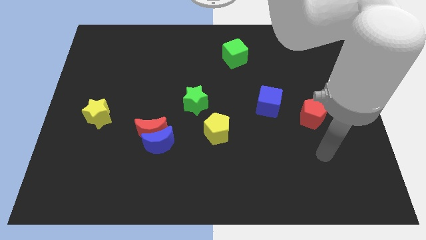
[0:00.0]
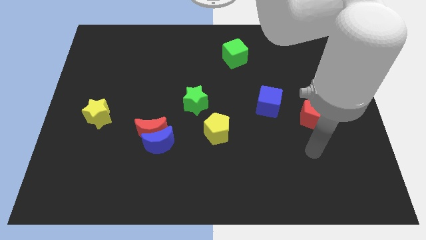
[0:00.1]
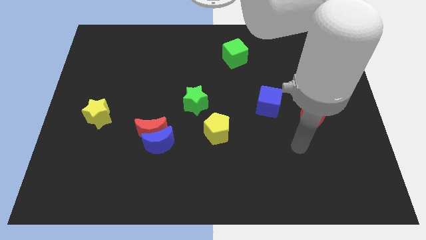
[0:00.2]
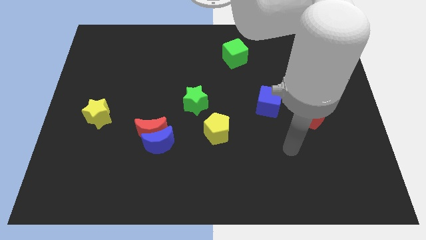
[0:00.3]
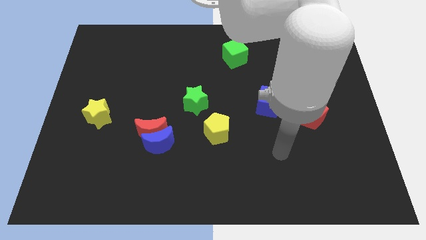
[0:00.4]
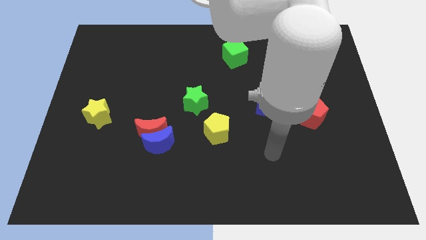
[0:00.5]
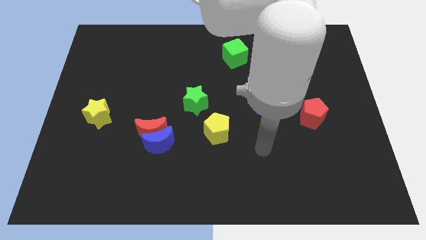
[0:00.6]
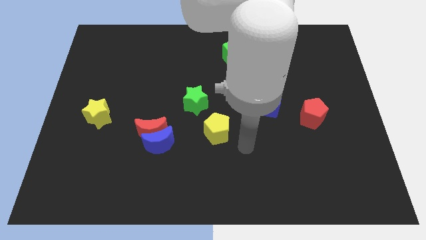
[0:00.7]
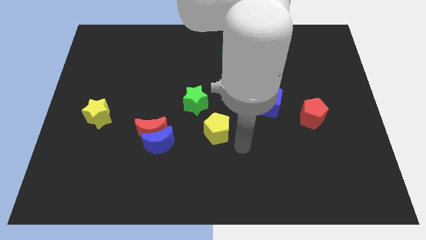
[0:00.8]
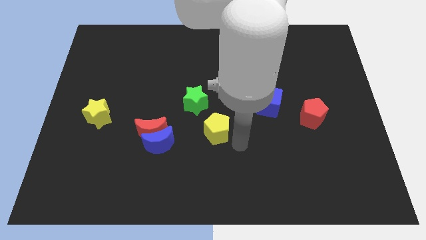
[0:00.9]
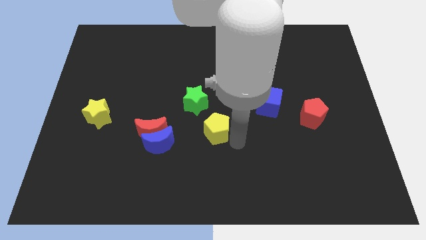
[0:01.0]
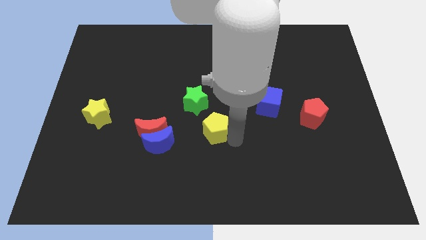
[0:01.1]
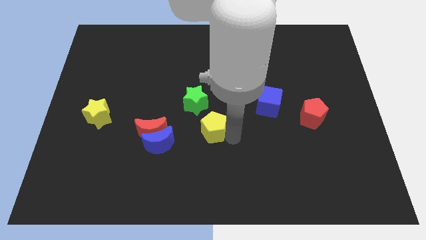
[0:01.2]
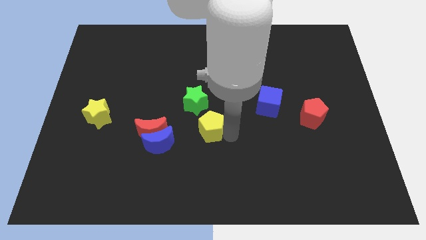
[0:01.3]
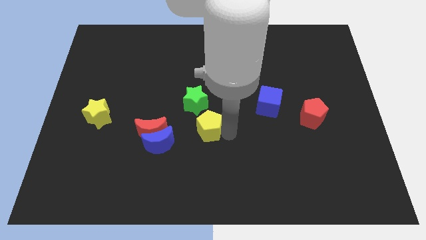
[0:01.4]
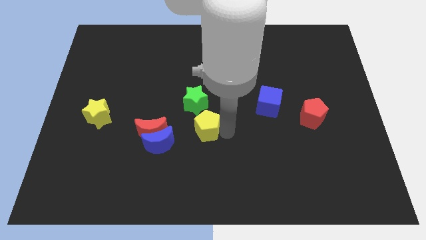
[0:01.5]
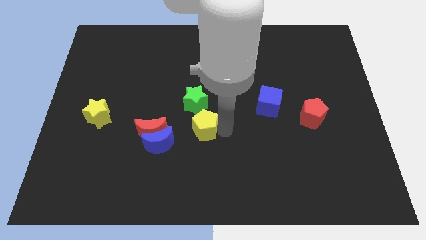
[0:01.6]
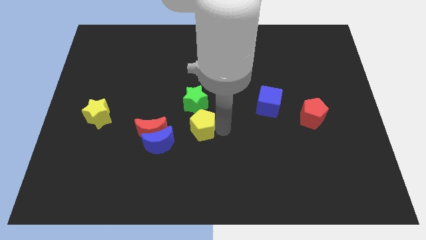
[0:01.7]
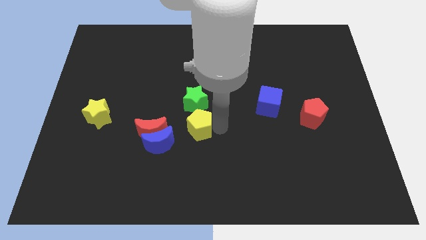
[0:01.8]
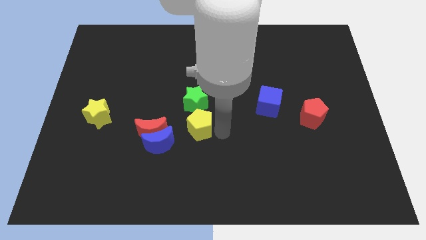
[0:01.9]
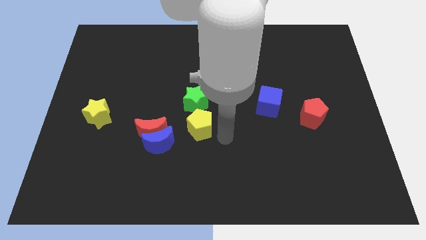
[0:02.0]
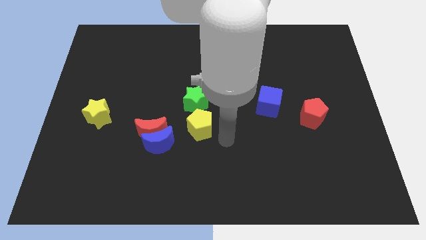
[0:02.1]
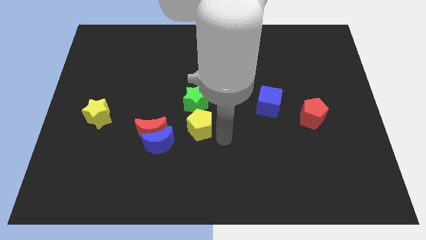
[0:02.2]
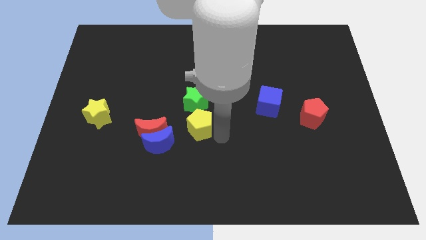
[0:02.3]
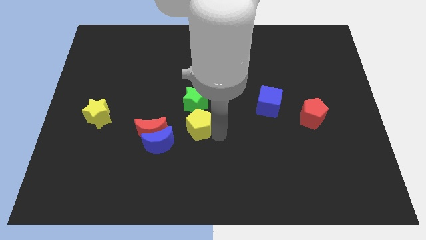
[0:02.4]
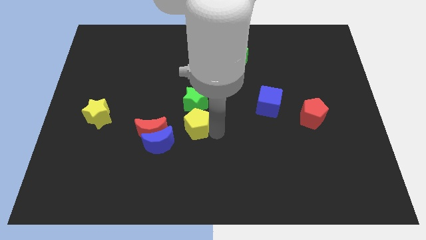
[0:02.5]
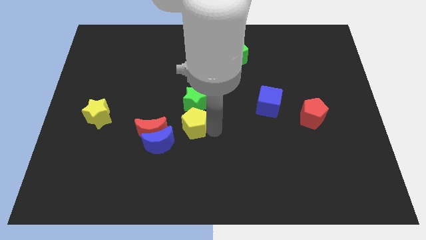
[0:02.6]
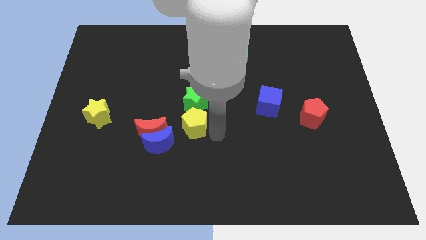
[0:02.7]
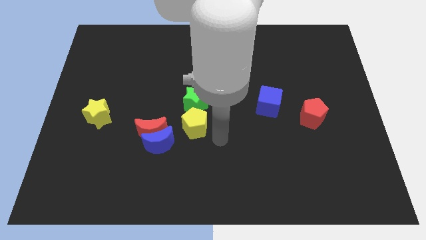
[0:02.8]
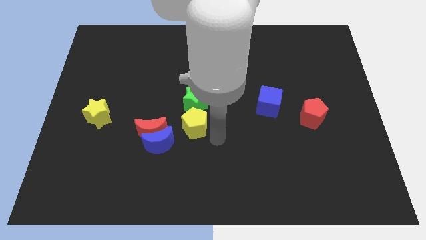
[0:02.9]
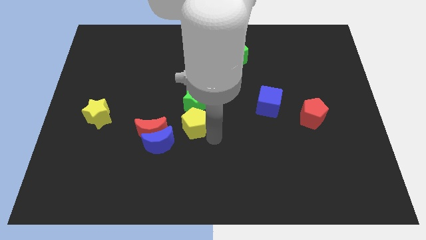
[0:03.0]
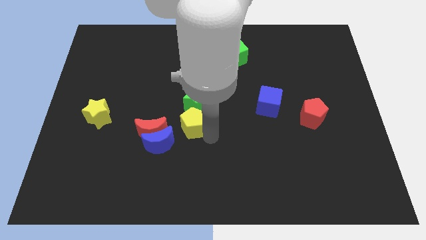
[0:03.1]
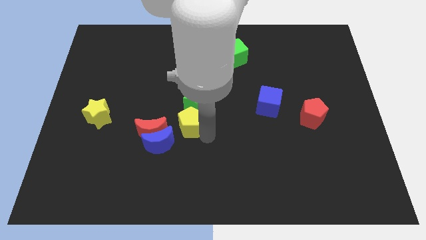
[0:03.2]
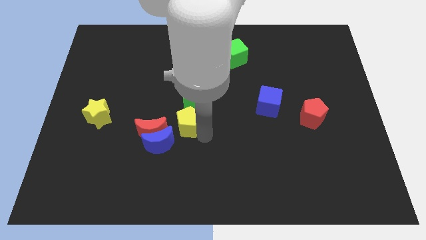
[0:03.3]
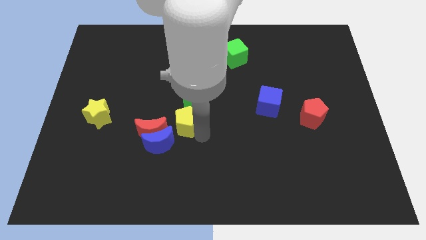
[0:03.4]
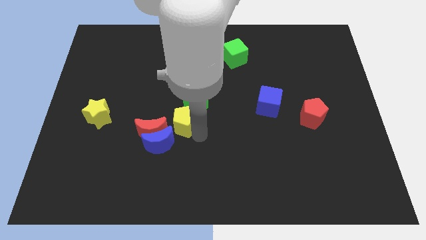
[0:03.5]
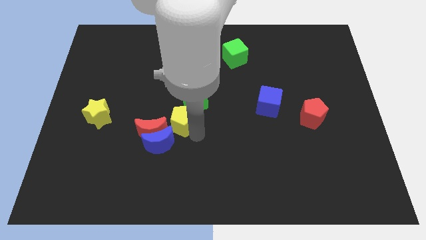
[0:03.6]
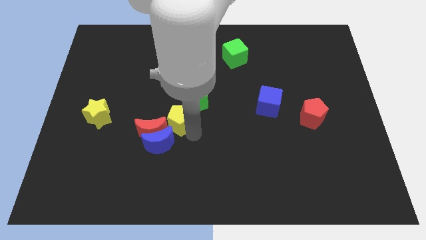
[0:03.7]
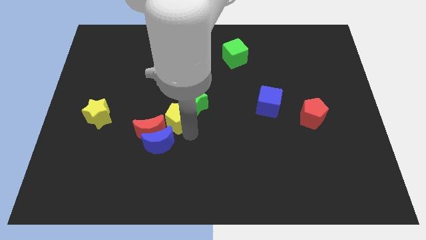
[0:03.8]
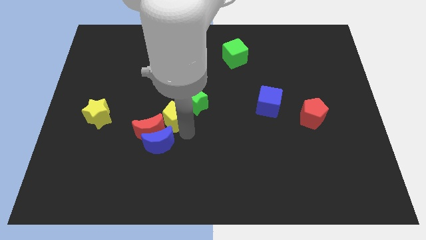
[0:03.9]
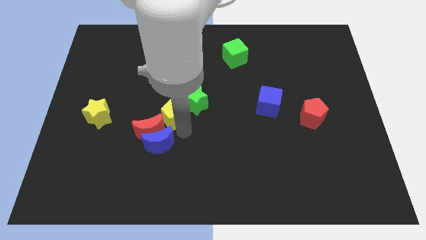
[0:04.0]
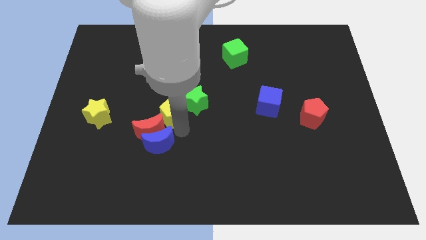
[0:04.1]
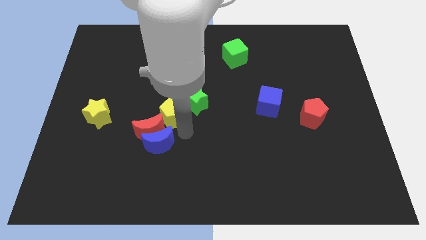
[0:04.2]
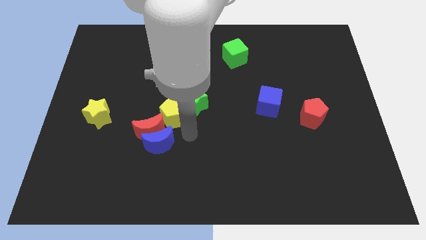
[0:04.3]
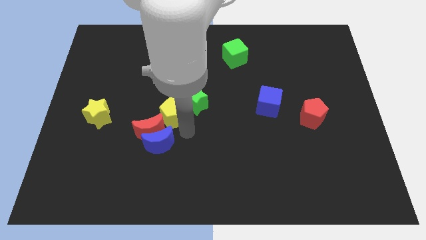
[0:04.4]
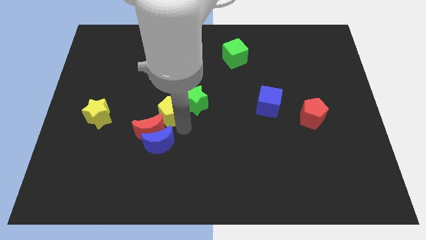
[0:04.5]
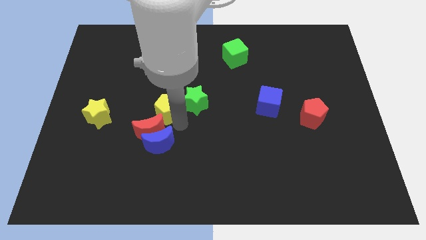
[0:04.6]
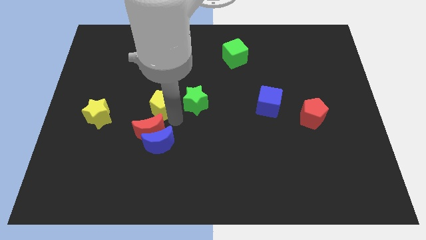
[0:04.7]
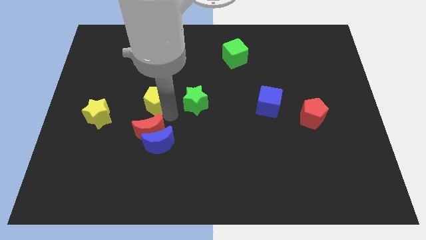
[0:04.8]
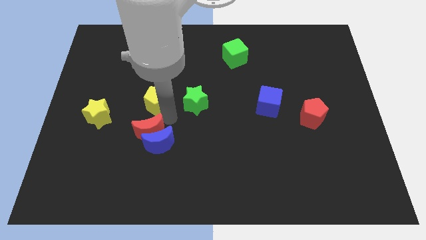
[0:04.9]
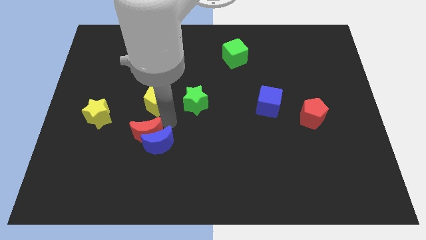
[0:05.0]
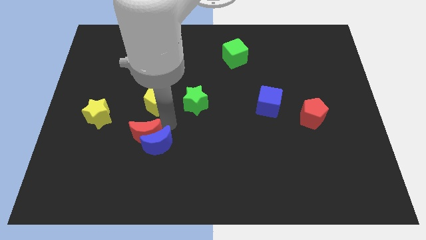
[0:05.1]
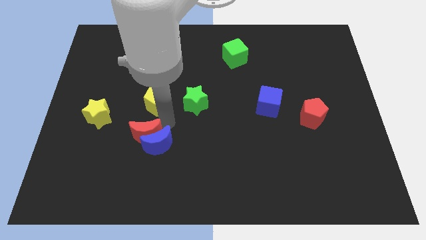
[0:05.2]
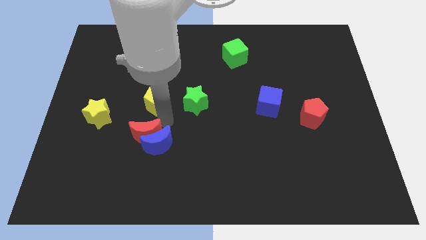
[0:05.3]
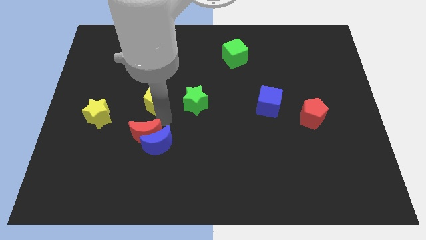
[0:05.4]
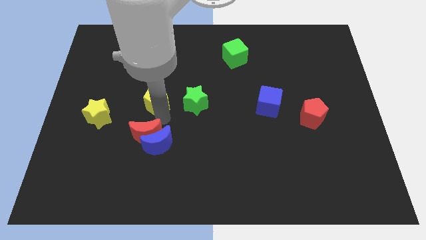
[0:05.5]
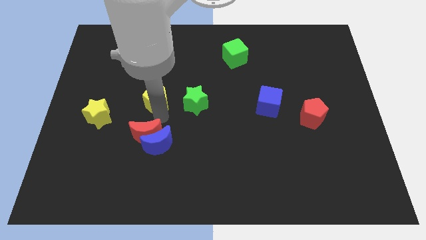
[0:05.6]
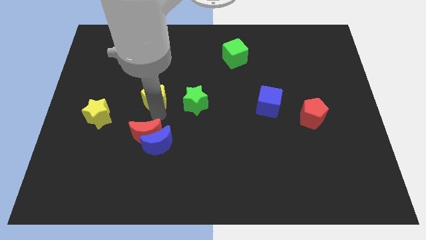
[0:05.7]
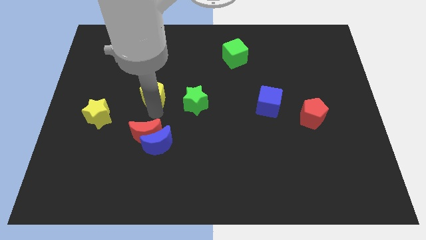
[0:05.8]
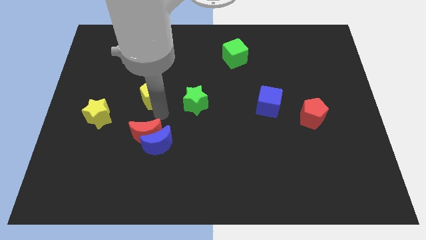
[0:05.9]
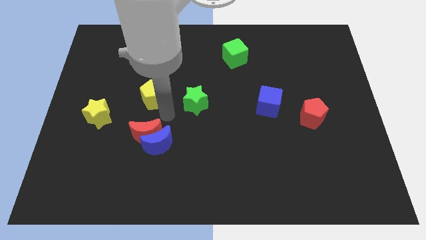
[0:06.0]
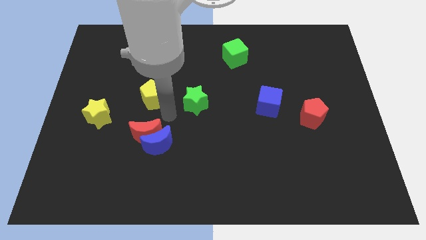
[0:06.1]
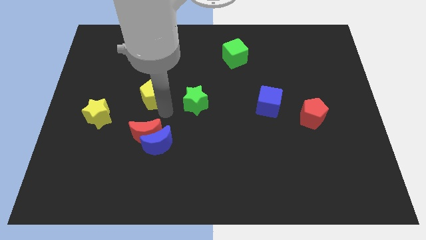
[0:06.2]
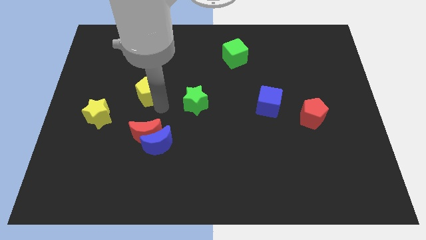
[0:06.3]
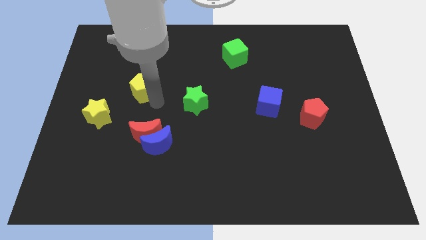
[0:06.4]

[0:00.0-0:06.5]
move the yellow pentagon up and then left

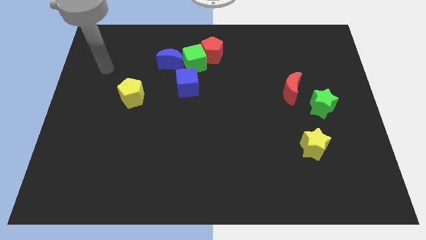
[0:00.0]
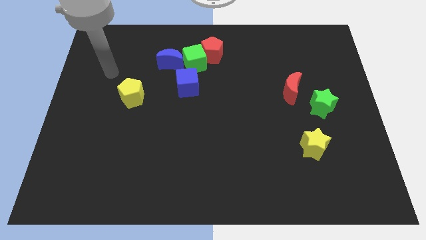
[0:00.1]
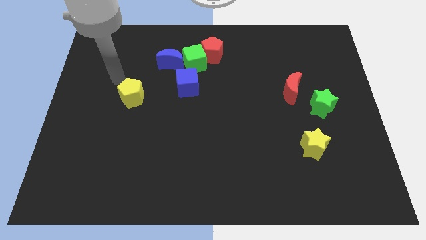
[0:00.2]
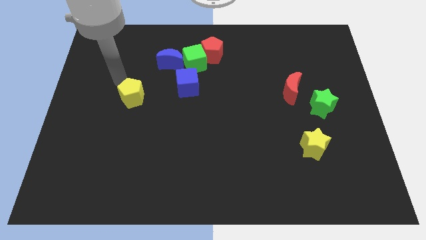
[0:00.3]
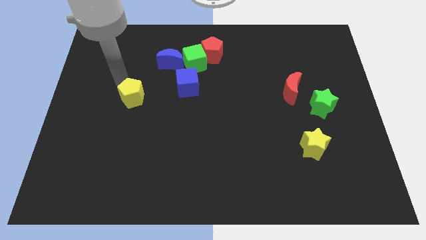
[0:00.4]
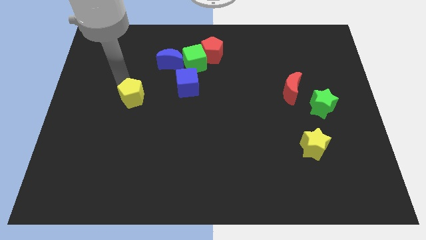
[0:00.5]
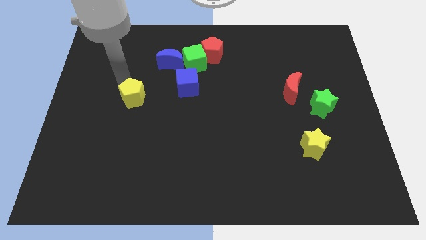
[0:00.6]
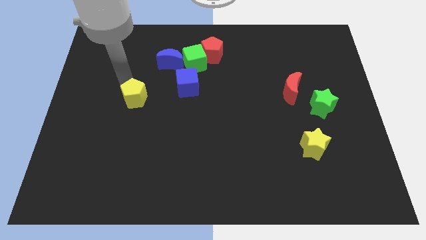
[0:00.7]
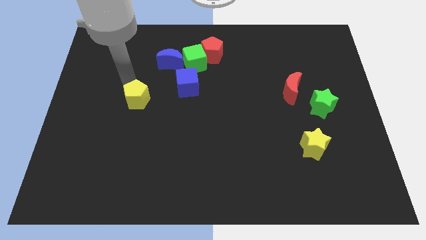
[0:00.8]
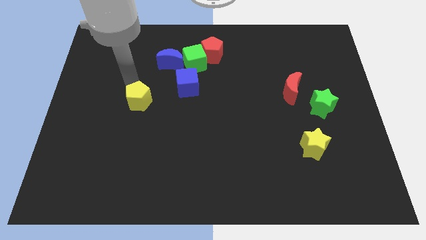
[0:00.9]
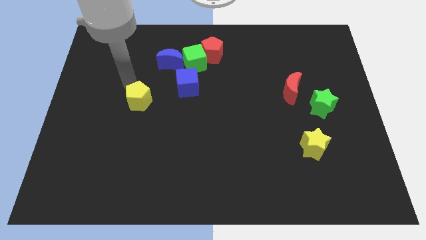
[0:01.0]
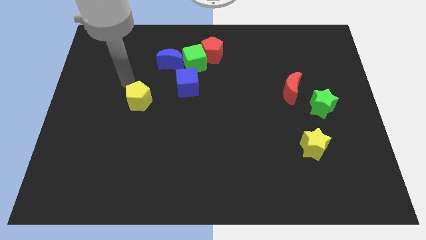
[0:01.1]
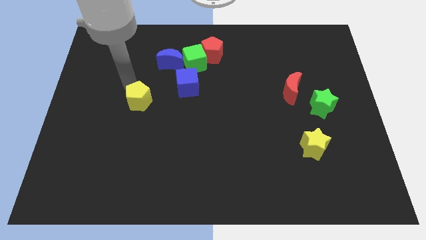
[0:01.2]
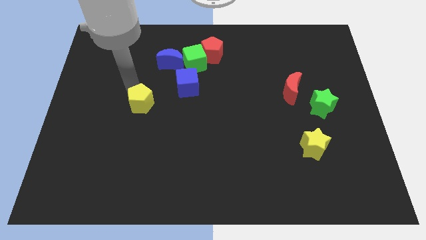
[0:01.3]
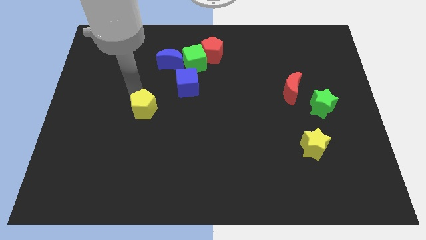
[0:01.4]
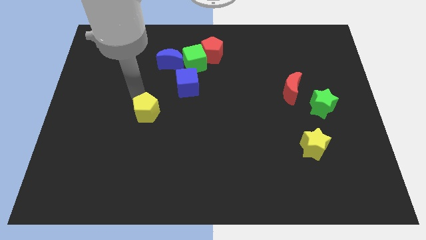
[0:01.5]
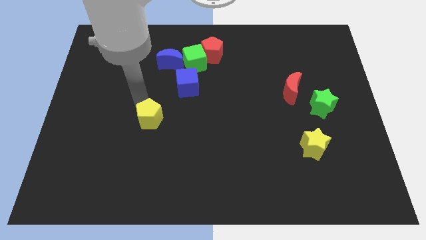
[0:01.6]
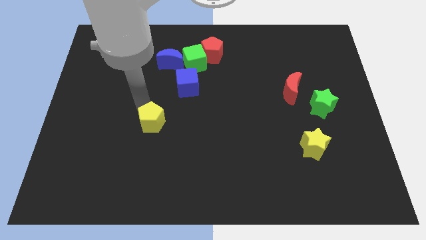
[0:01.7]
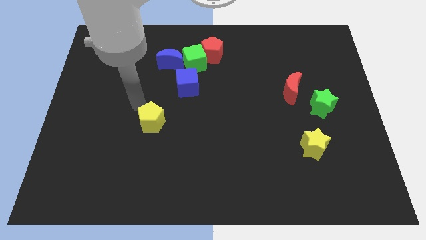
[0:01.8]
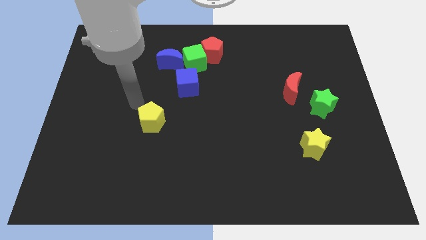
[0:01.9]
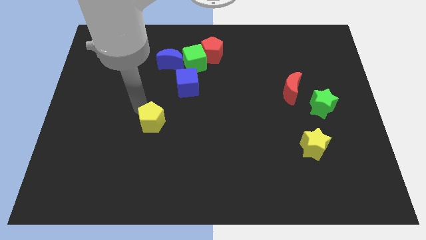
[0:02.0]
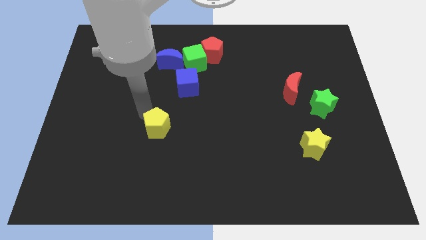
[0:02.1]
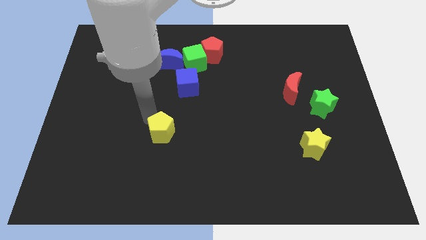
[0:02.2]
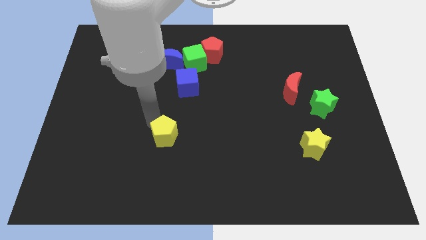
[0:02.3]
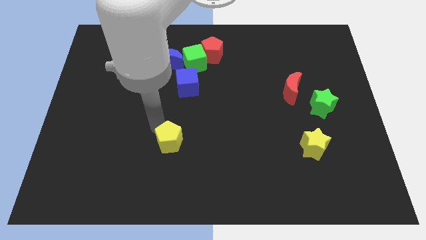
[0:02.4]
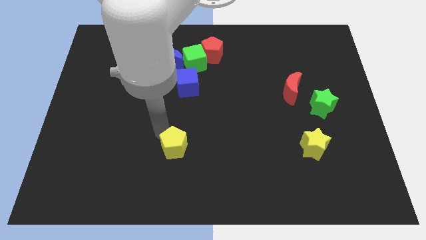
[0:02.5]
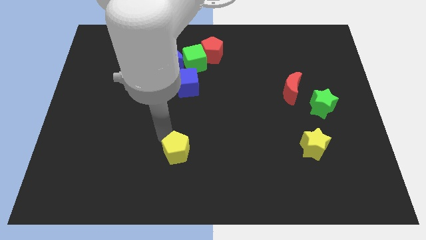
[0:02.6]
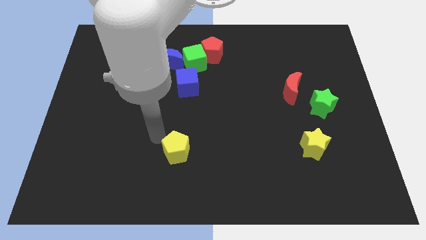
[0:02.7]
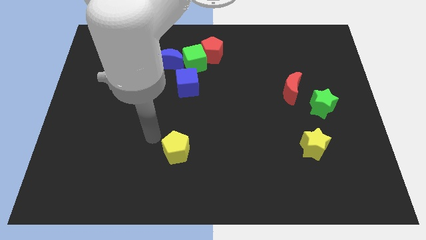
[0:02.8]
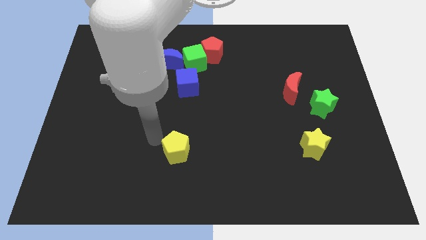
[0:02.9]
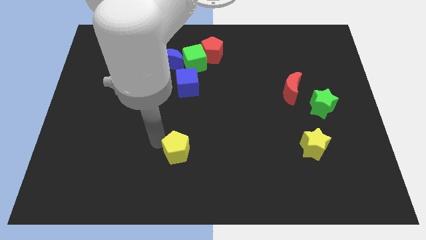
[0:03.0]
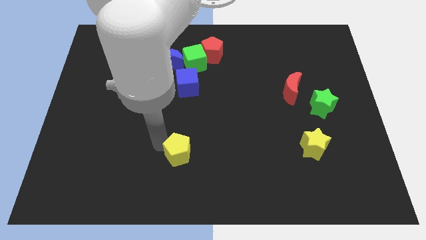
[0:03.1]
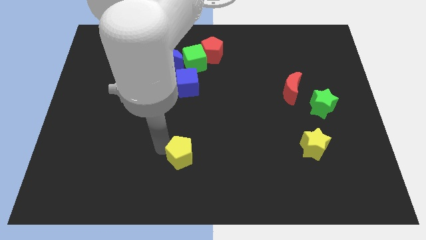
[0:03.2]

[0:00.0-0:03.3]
move the yellow pentagon down and then right
